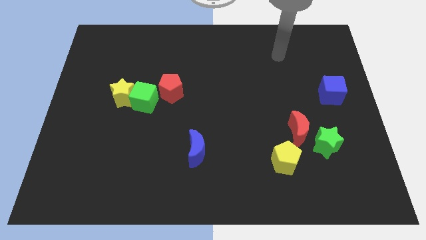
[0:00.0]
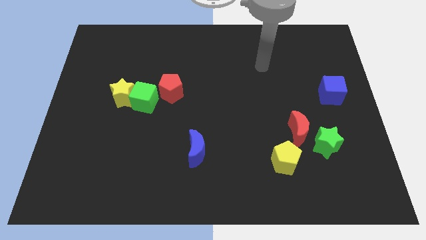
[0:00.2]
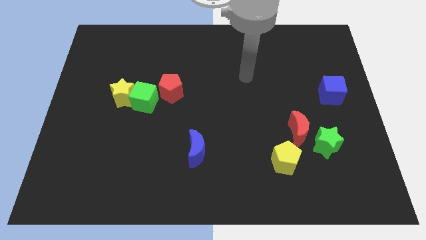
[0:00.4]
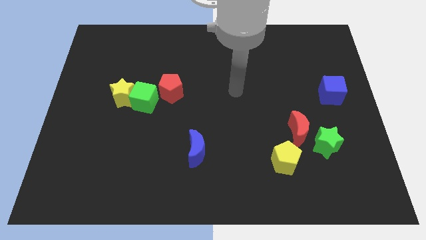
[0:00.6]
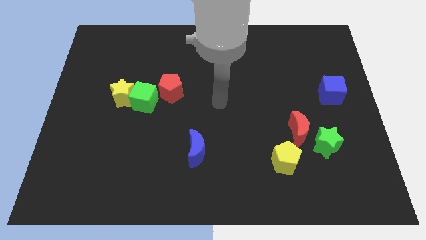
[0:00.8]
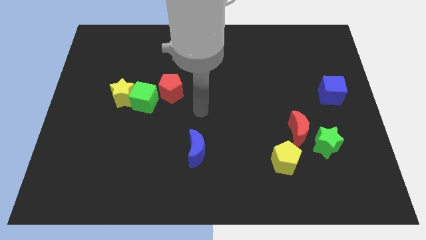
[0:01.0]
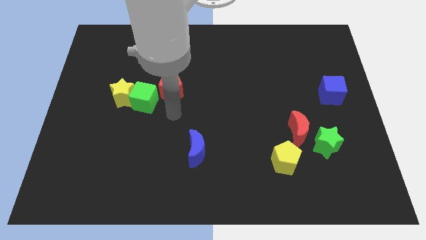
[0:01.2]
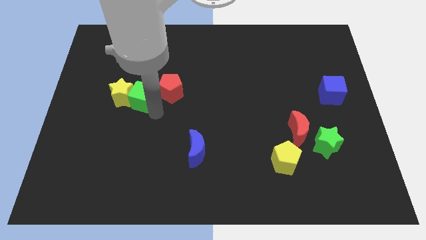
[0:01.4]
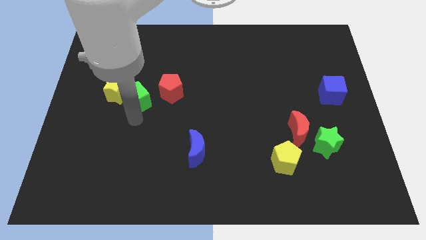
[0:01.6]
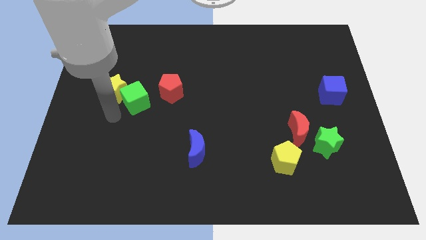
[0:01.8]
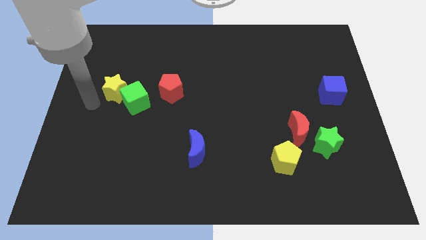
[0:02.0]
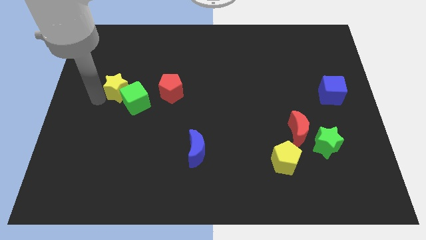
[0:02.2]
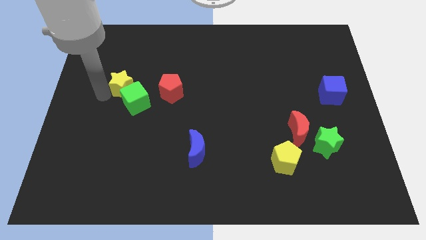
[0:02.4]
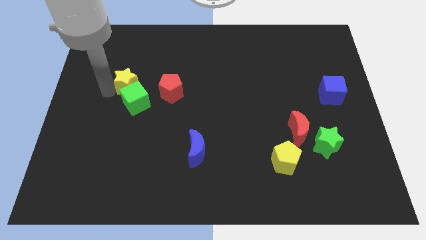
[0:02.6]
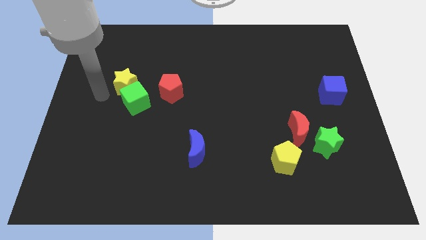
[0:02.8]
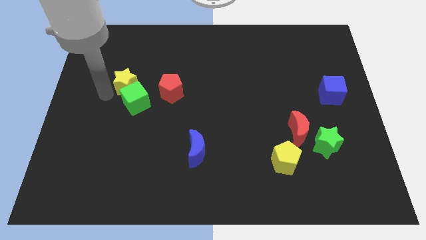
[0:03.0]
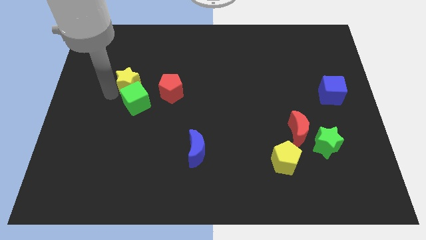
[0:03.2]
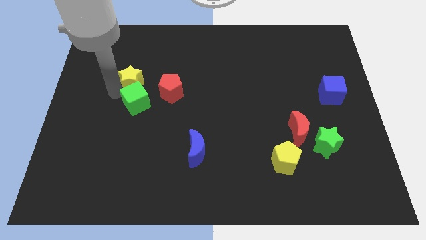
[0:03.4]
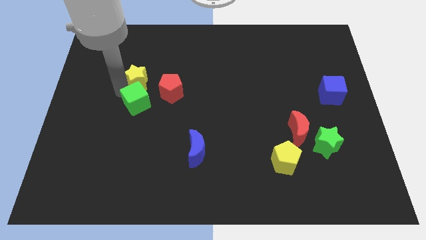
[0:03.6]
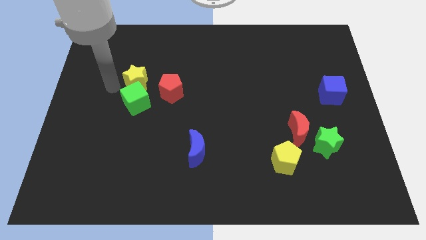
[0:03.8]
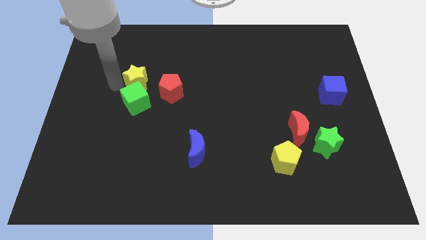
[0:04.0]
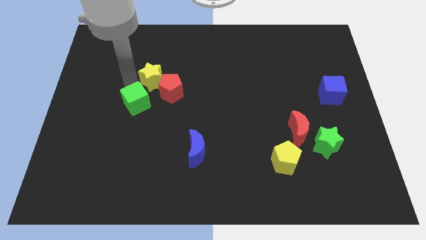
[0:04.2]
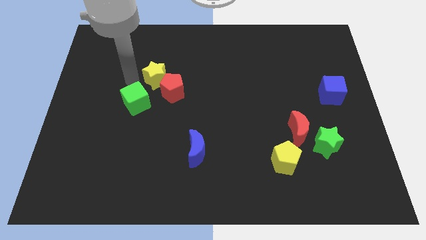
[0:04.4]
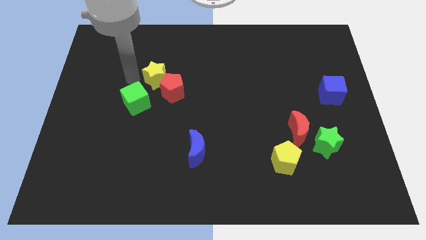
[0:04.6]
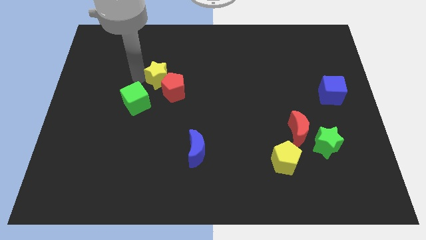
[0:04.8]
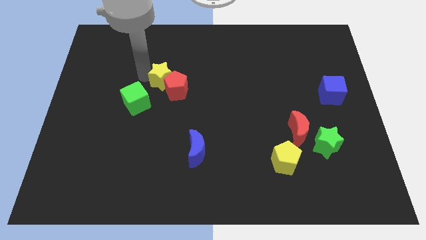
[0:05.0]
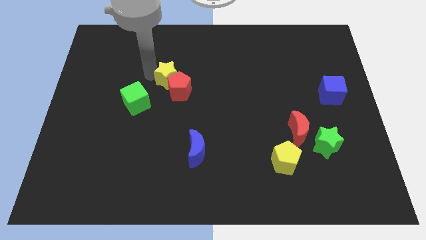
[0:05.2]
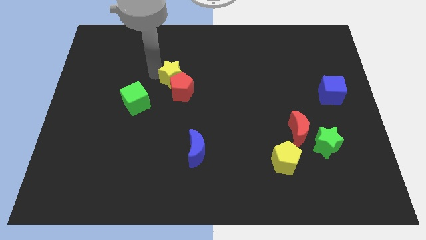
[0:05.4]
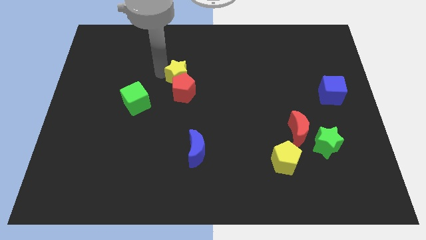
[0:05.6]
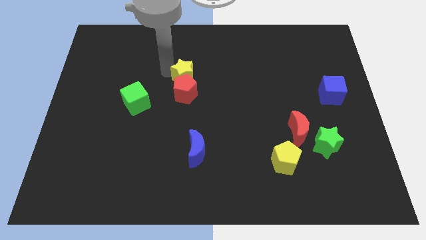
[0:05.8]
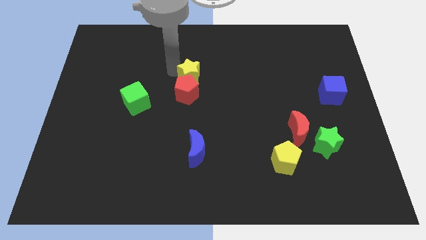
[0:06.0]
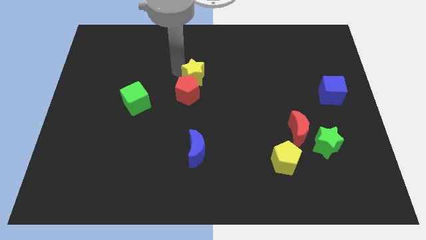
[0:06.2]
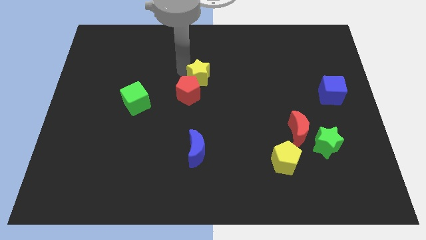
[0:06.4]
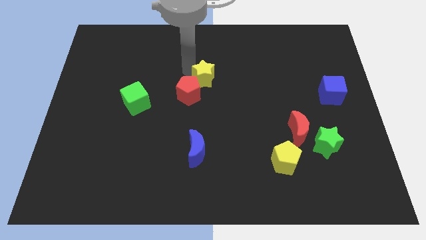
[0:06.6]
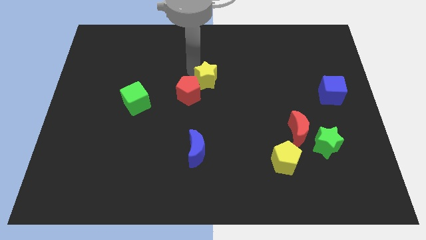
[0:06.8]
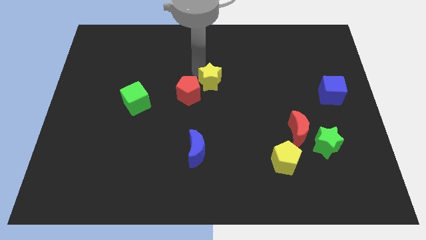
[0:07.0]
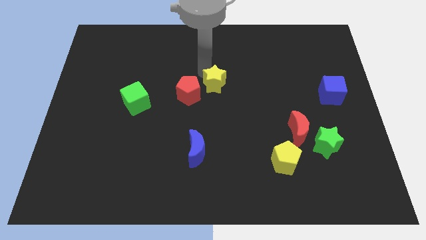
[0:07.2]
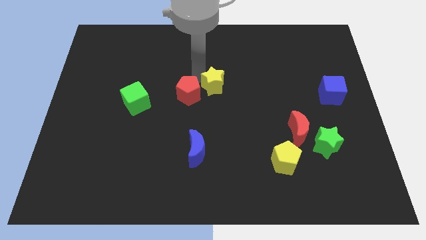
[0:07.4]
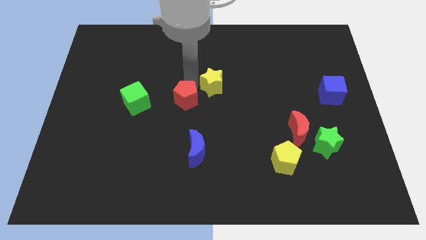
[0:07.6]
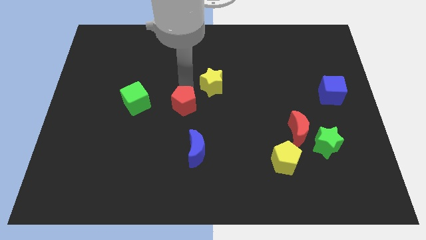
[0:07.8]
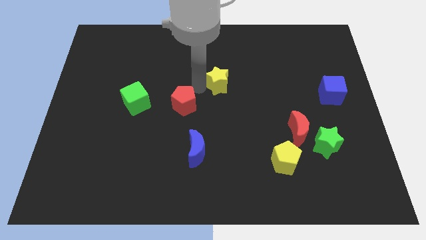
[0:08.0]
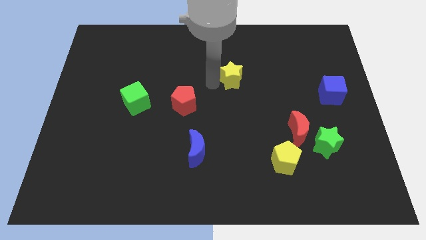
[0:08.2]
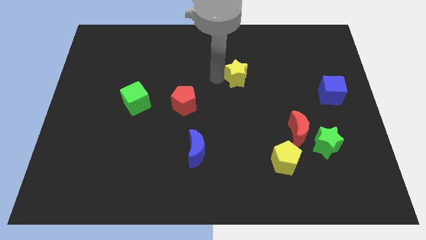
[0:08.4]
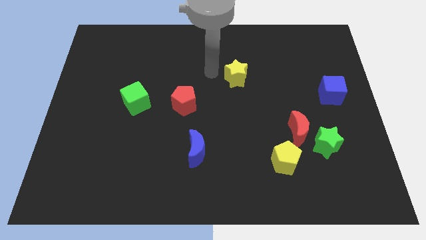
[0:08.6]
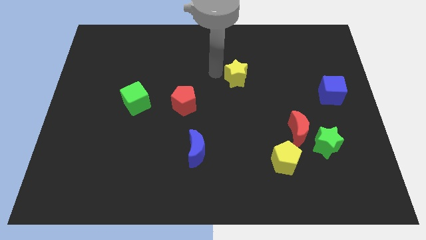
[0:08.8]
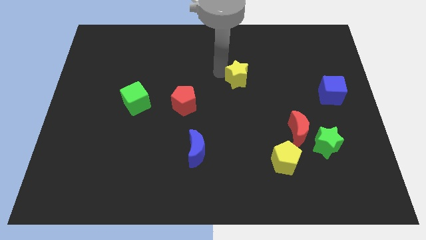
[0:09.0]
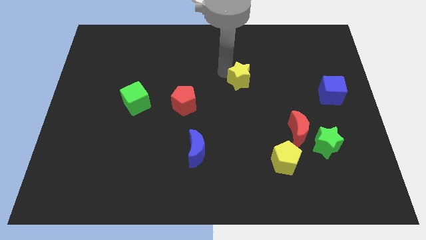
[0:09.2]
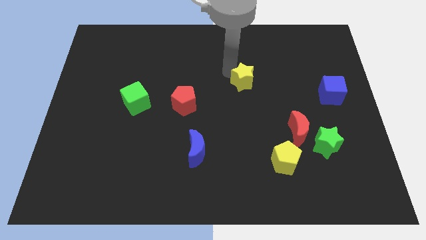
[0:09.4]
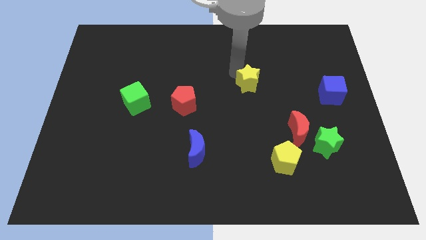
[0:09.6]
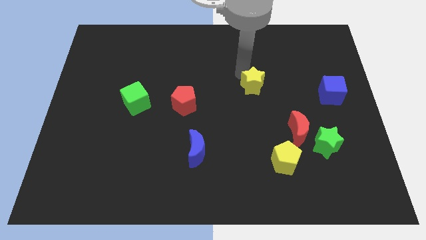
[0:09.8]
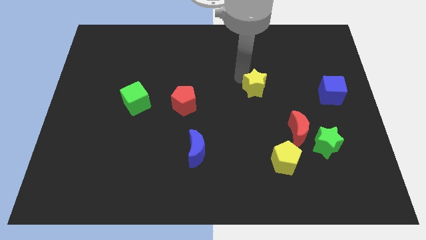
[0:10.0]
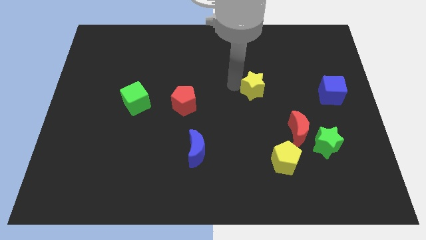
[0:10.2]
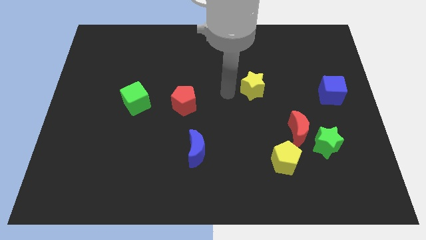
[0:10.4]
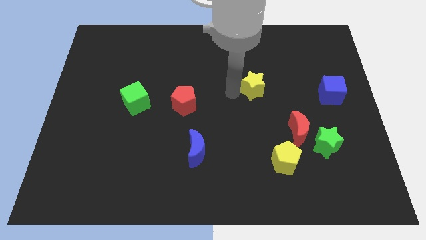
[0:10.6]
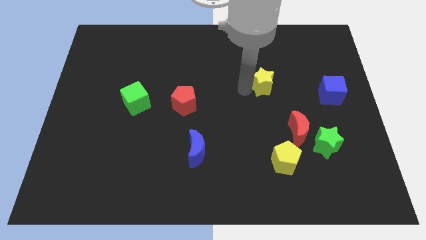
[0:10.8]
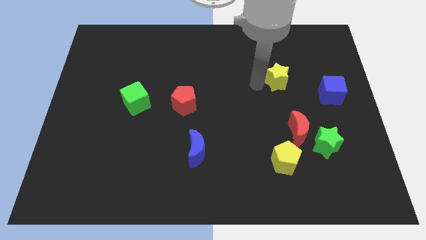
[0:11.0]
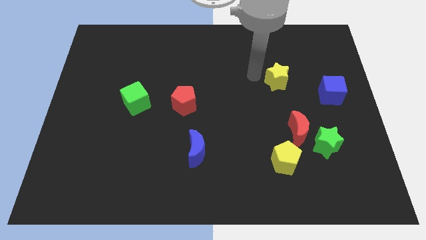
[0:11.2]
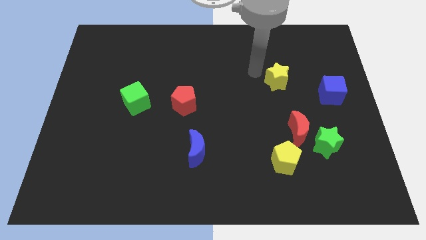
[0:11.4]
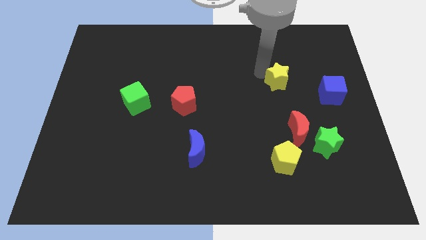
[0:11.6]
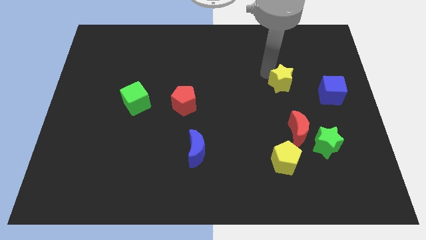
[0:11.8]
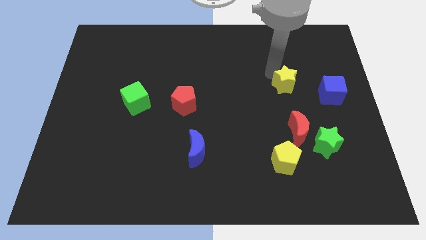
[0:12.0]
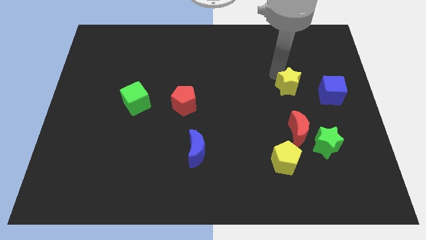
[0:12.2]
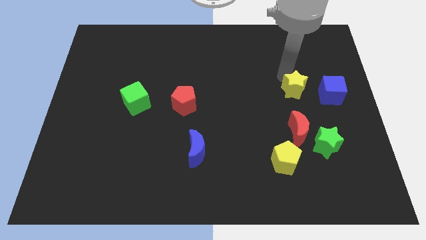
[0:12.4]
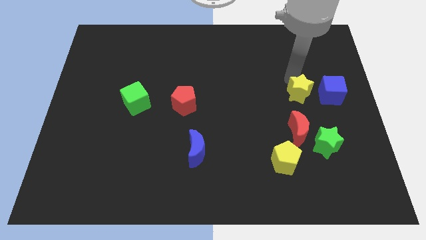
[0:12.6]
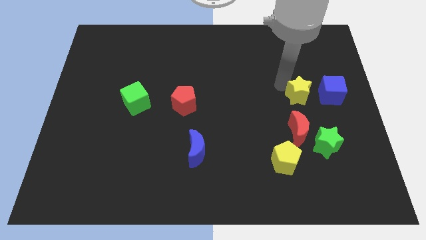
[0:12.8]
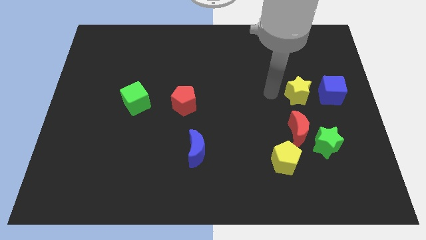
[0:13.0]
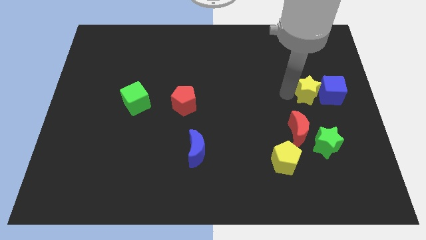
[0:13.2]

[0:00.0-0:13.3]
slide the yellow star towards the blue cube

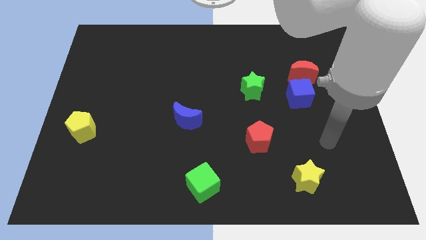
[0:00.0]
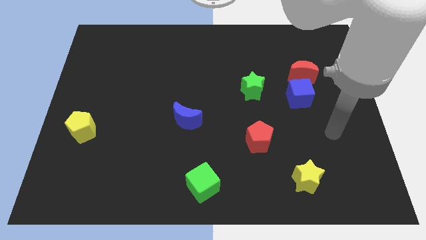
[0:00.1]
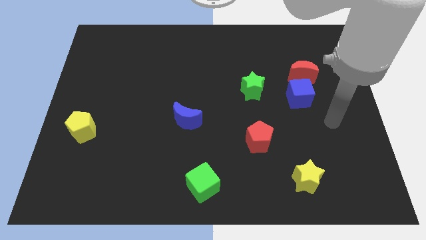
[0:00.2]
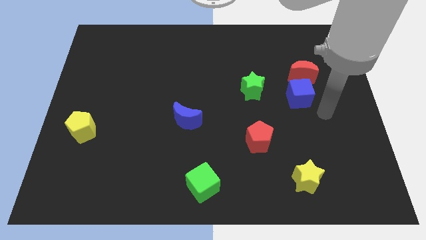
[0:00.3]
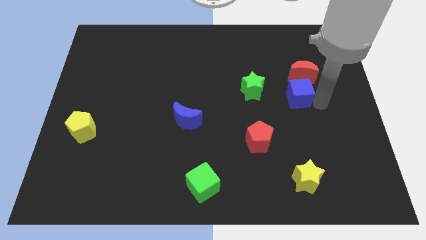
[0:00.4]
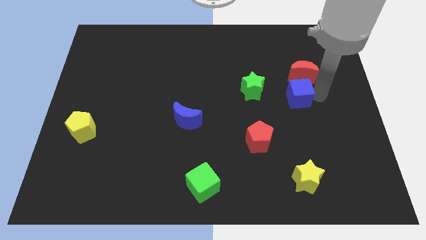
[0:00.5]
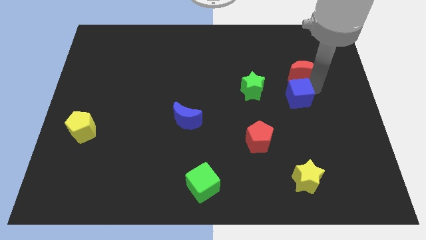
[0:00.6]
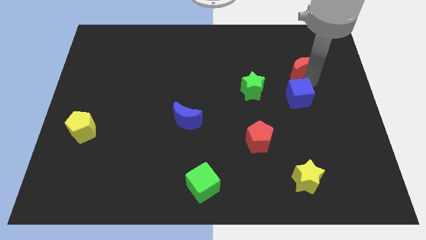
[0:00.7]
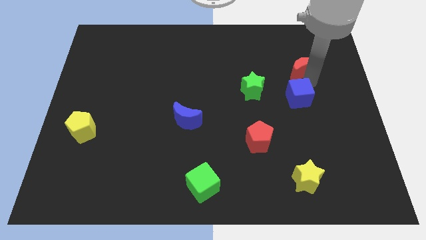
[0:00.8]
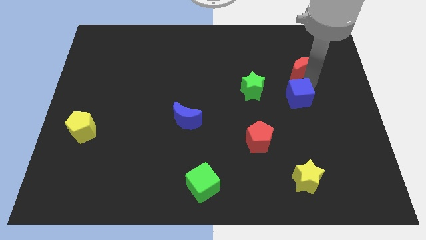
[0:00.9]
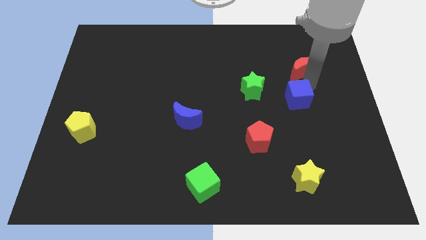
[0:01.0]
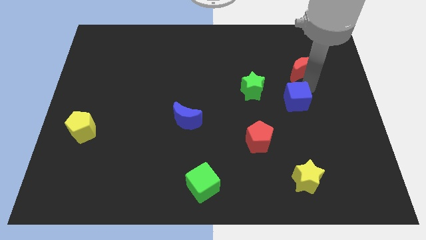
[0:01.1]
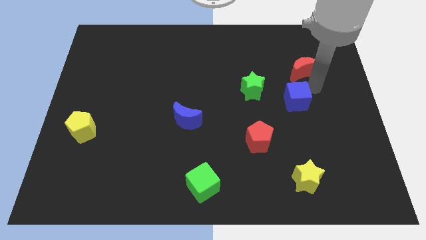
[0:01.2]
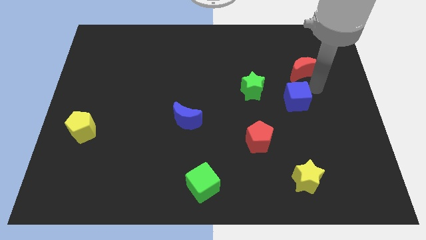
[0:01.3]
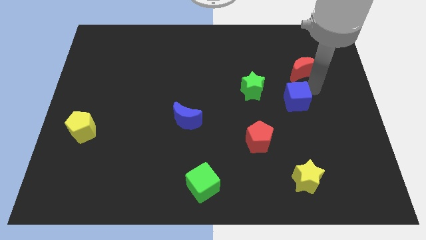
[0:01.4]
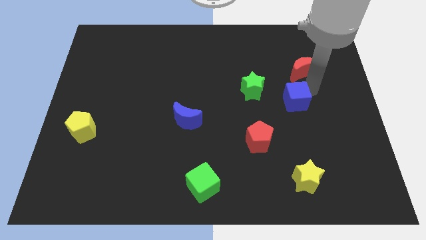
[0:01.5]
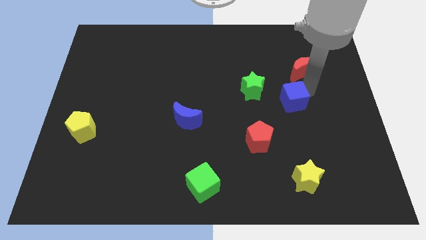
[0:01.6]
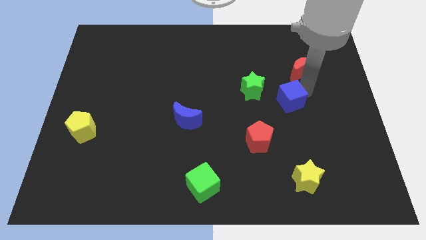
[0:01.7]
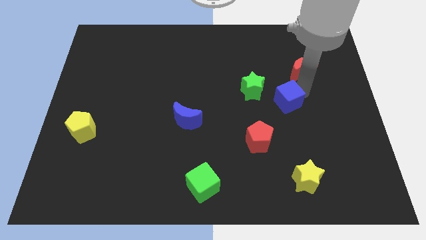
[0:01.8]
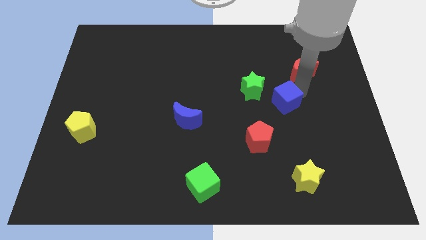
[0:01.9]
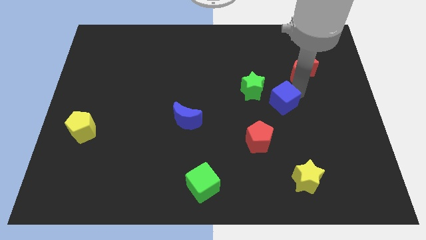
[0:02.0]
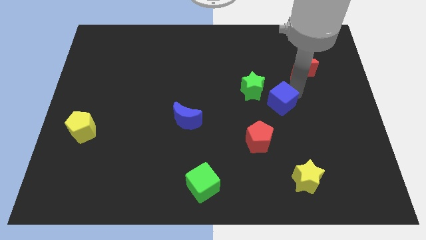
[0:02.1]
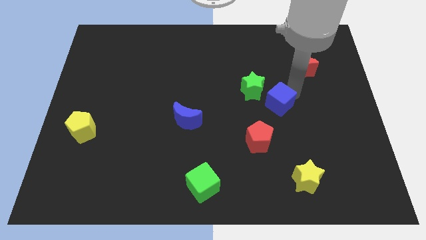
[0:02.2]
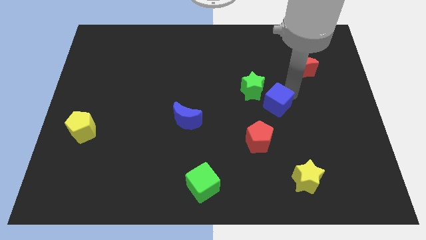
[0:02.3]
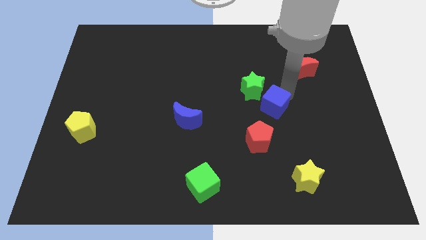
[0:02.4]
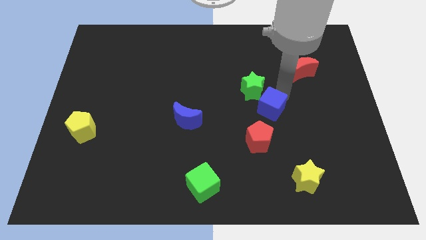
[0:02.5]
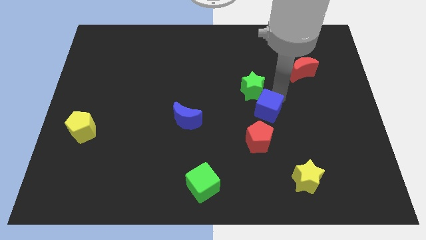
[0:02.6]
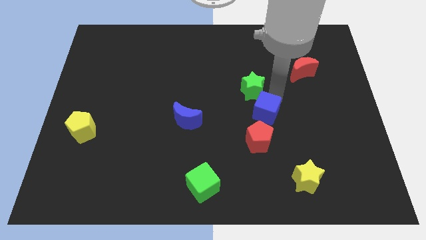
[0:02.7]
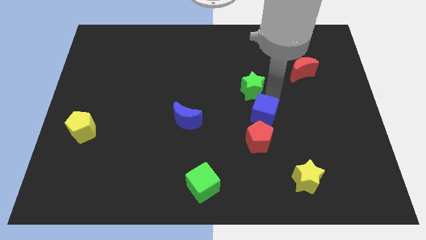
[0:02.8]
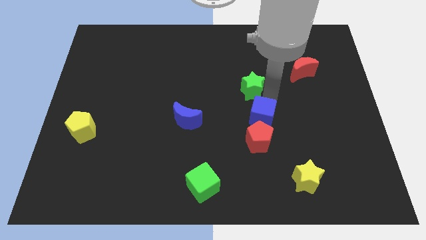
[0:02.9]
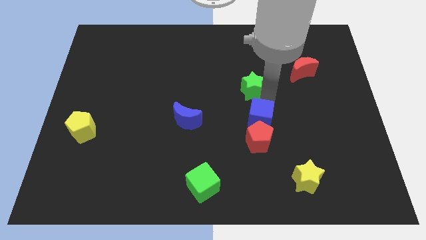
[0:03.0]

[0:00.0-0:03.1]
put the blue cube towards the red pentagon
